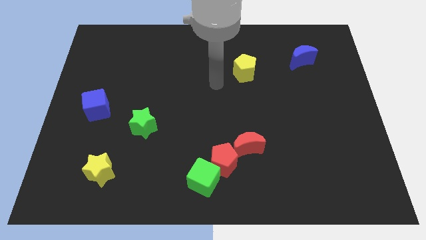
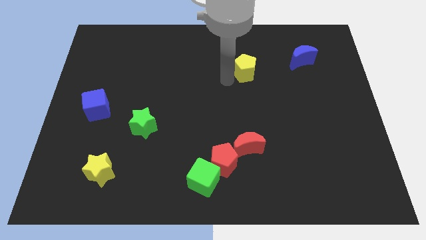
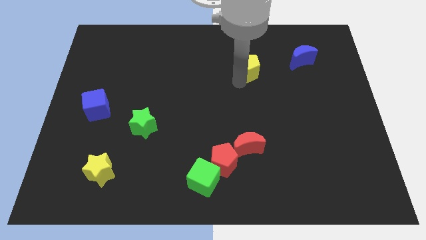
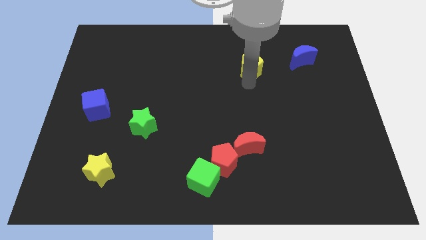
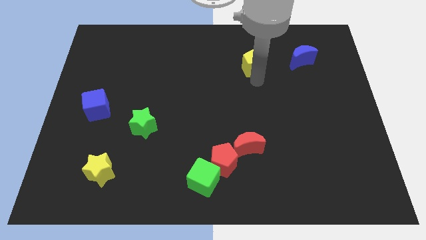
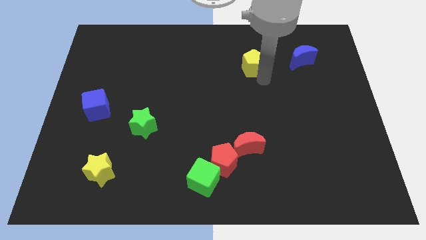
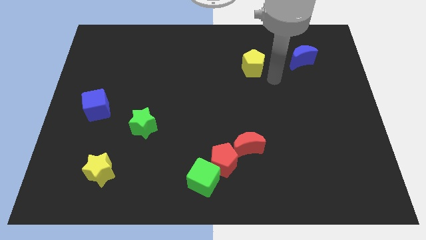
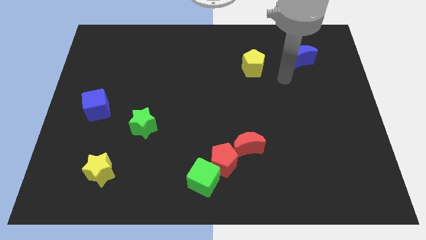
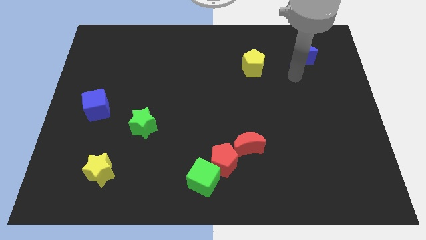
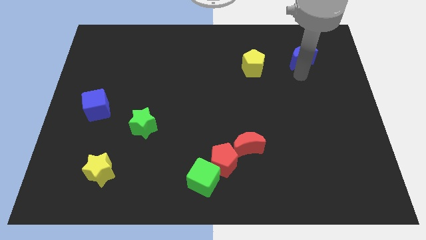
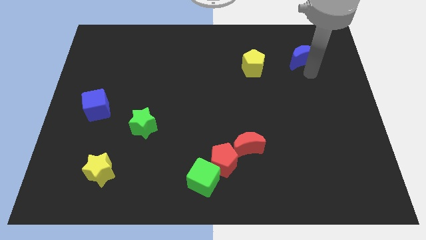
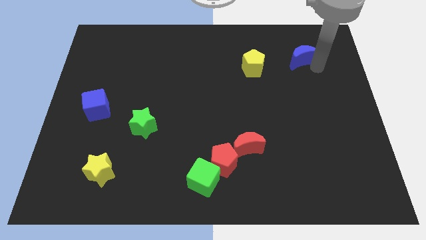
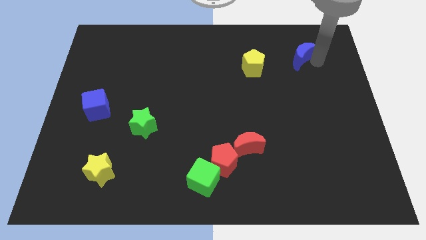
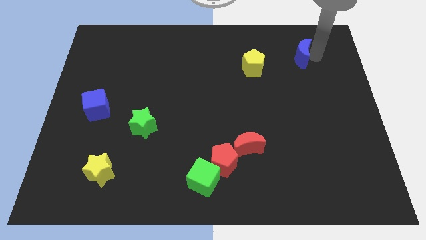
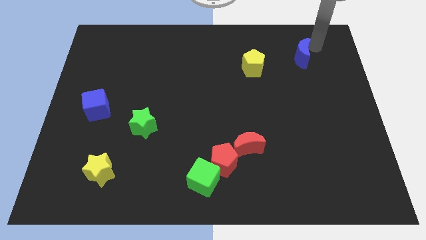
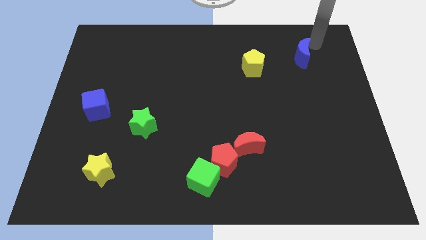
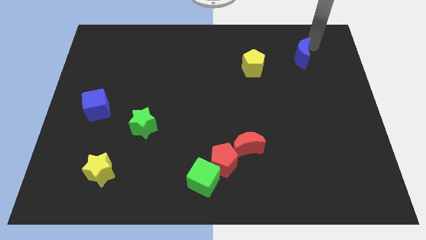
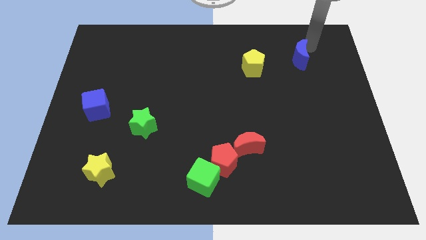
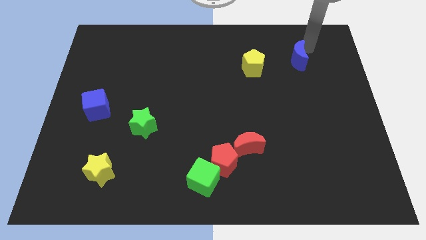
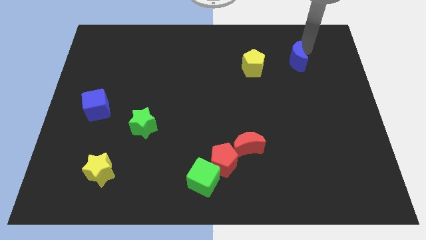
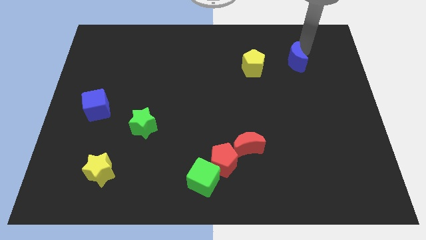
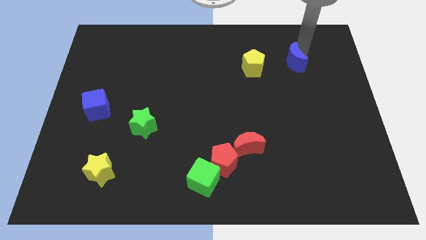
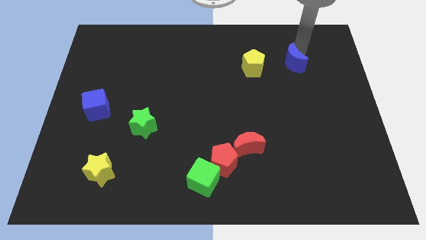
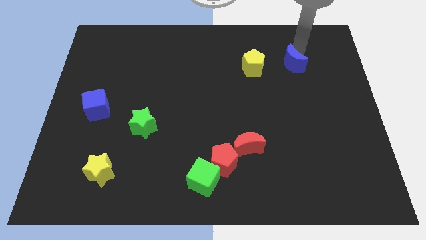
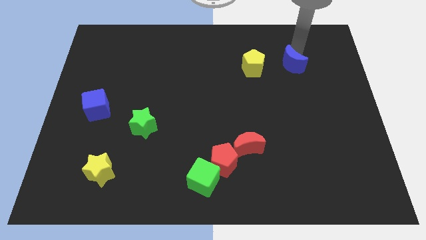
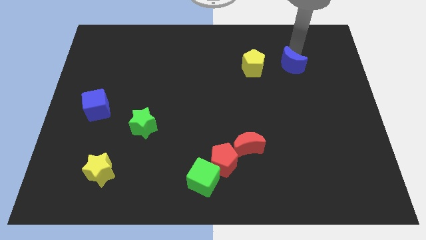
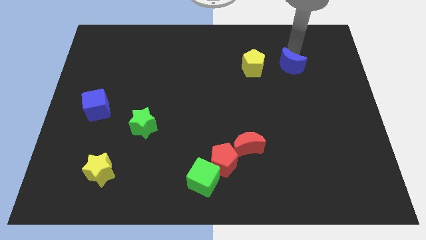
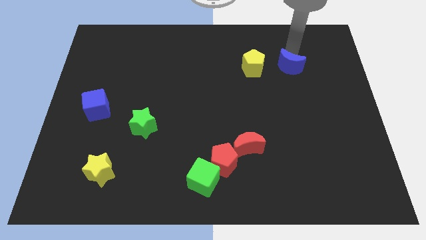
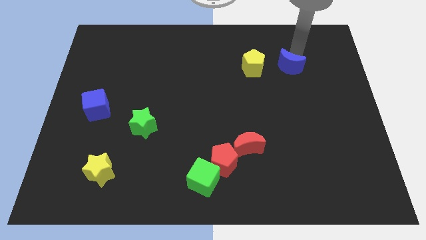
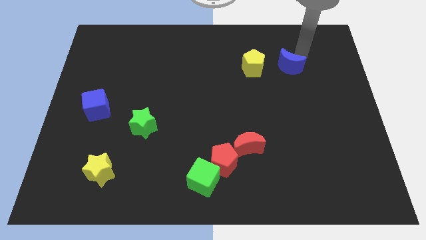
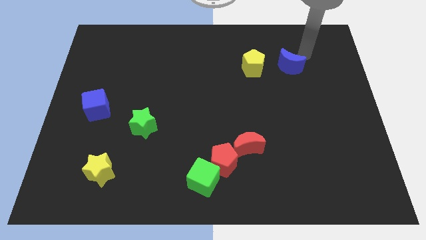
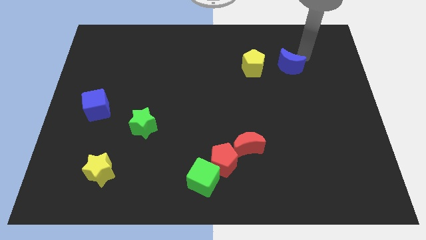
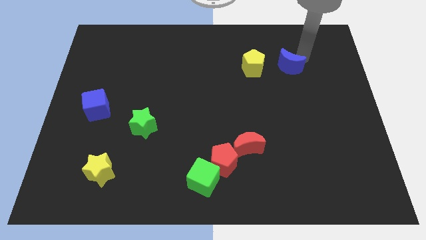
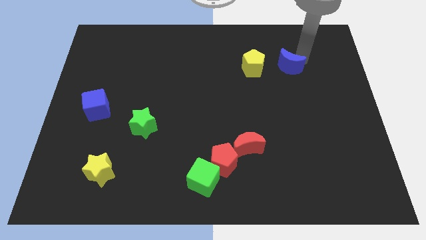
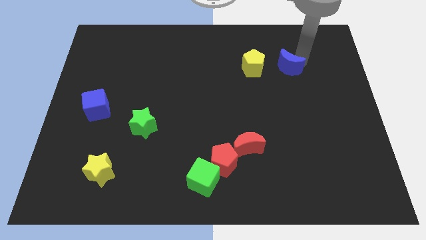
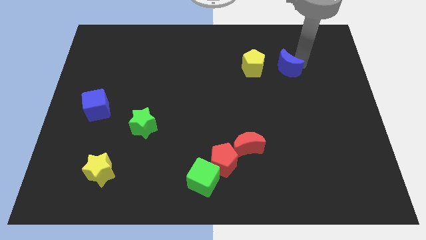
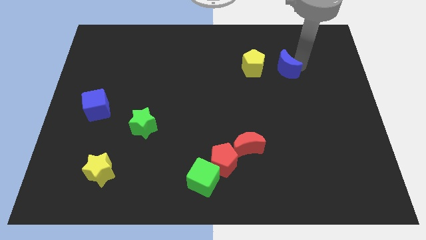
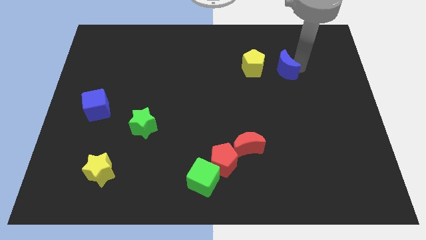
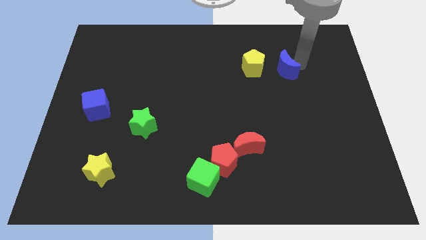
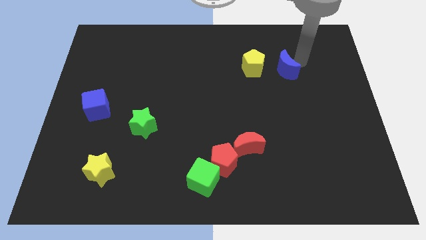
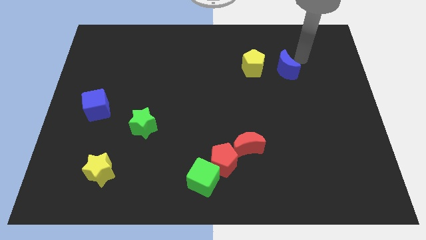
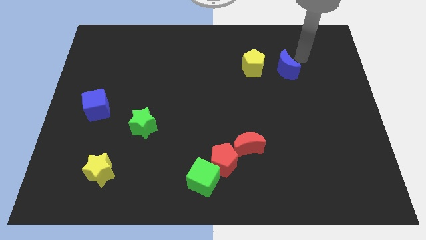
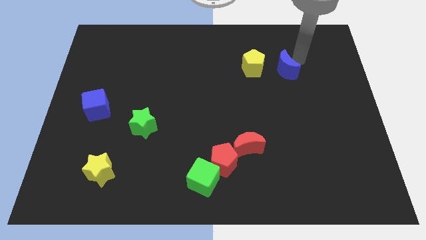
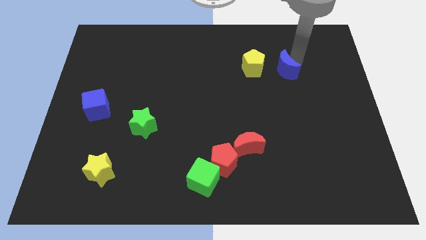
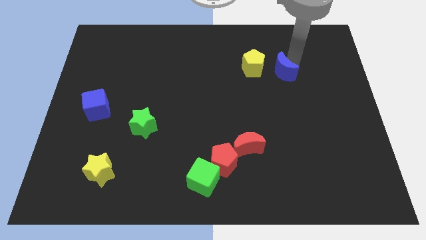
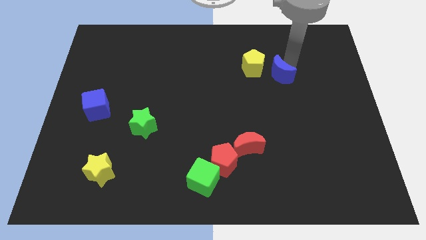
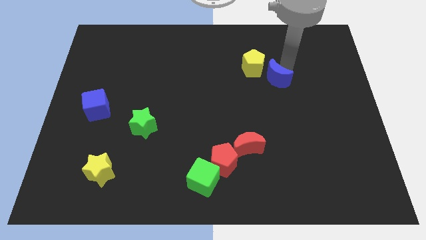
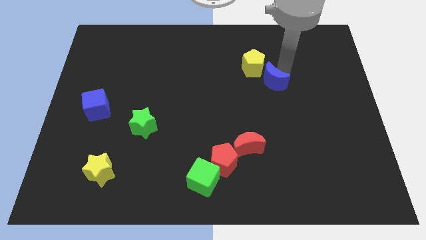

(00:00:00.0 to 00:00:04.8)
put the blue moon to the bottom of the yellow pentagon

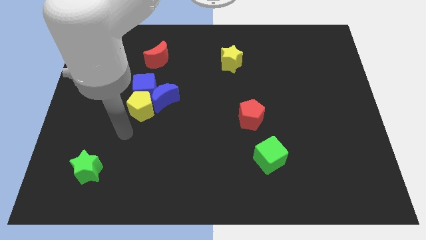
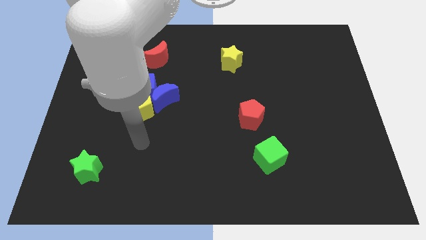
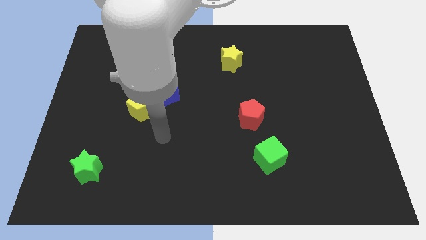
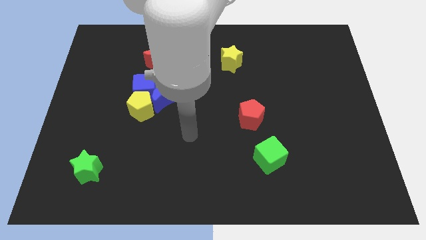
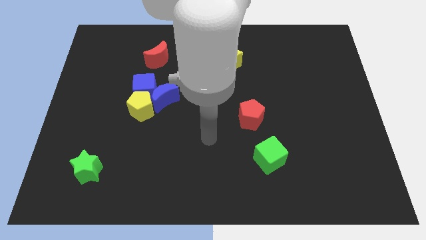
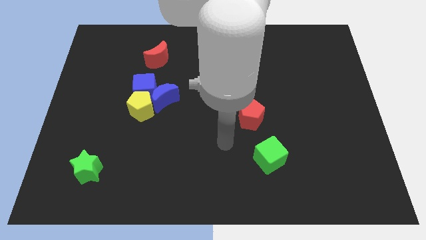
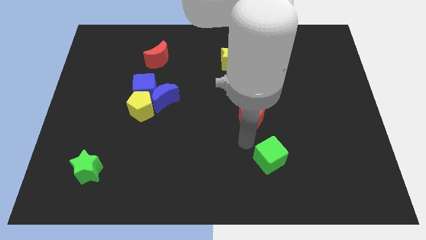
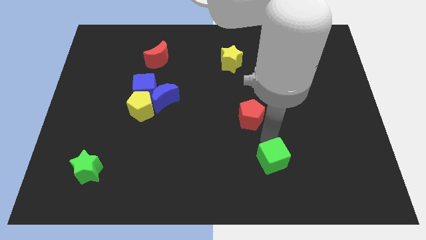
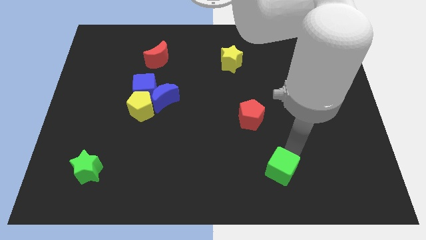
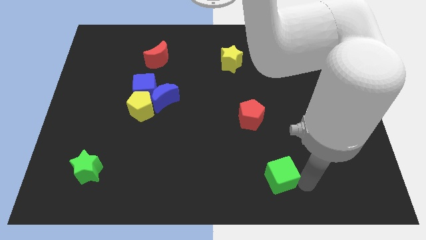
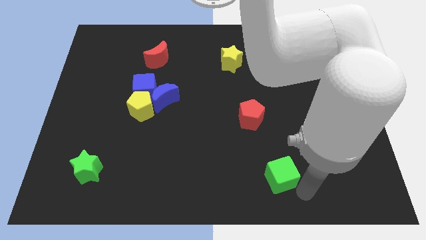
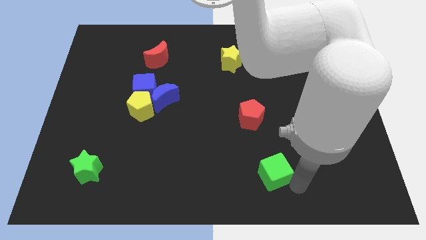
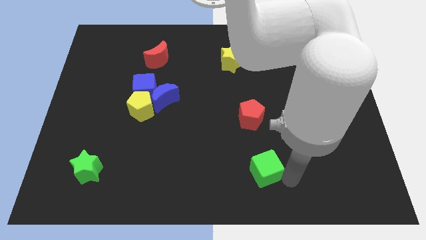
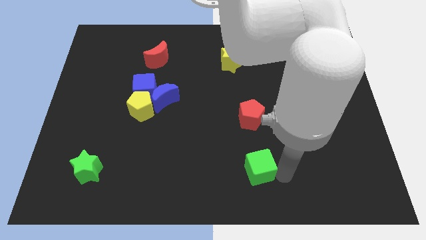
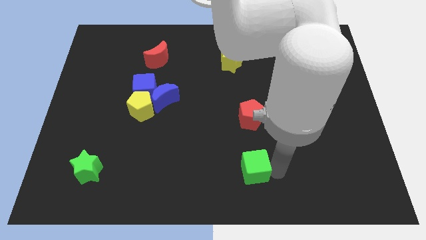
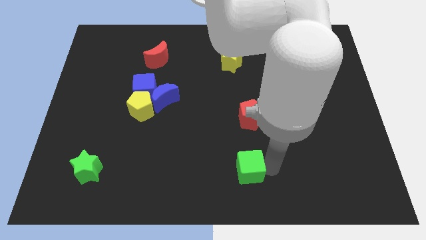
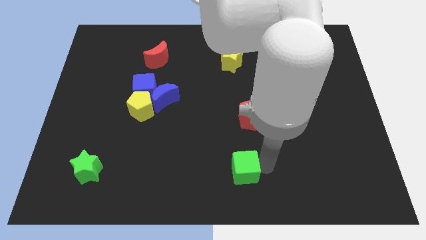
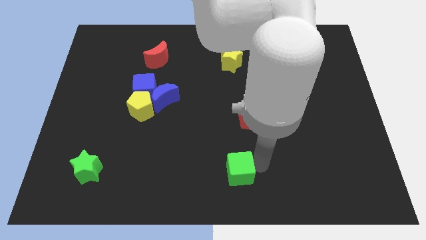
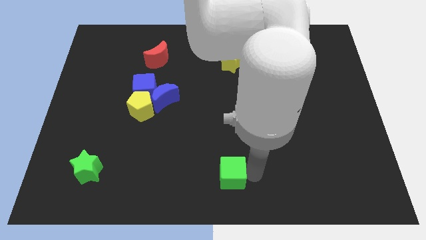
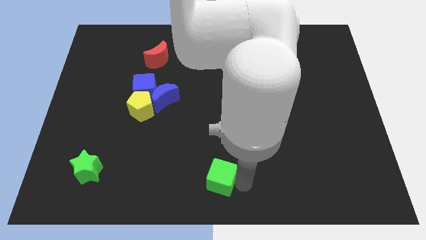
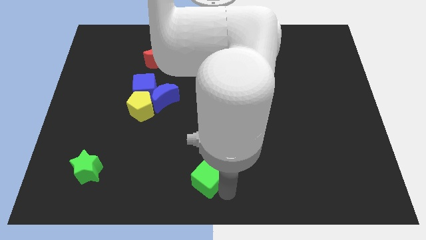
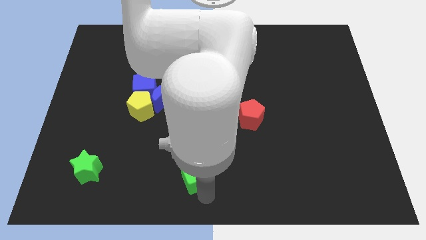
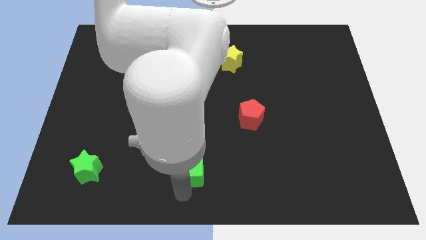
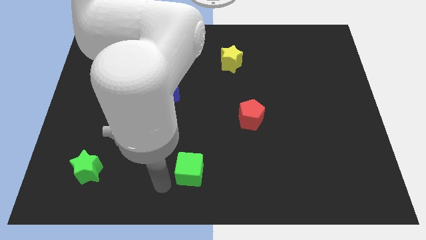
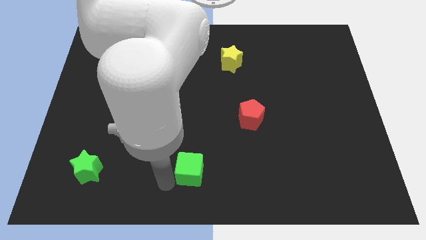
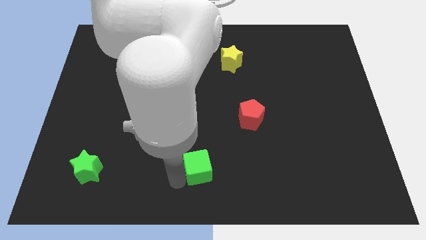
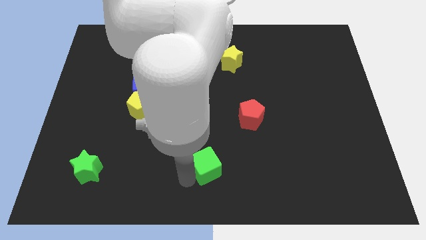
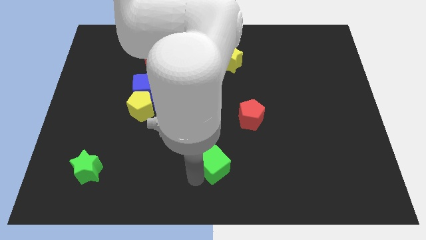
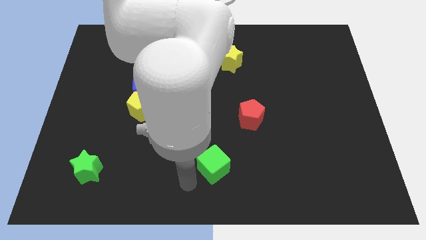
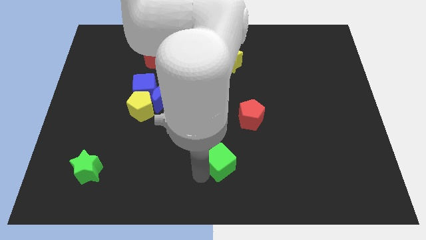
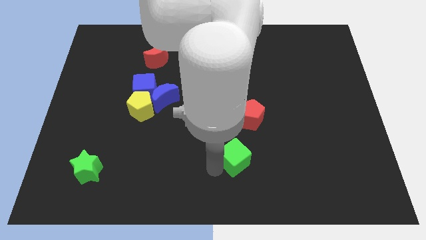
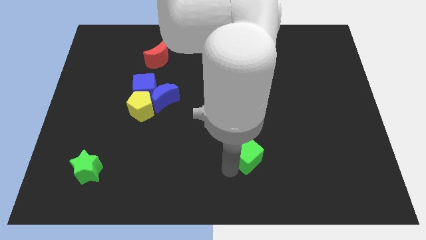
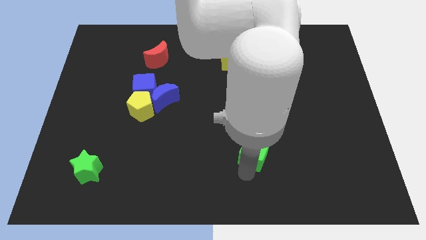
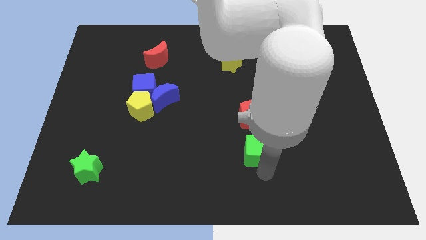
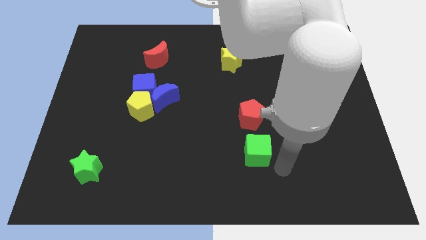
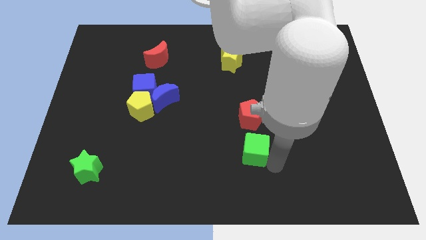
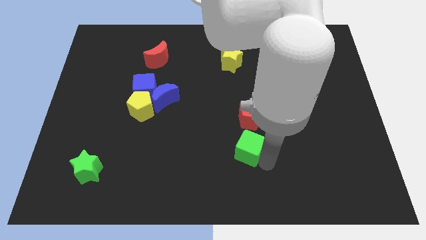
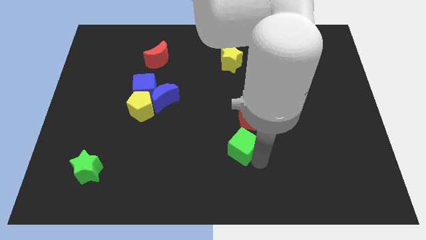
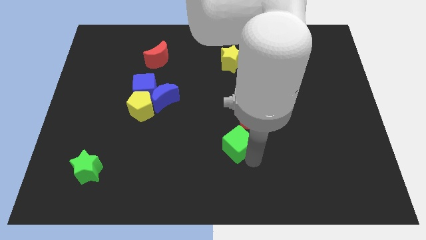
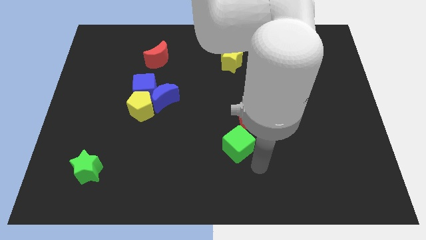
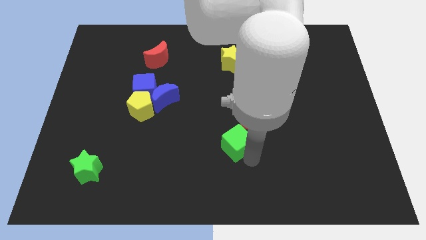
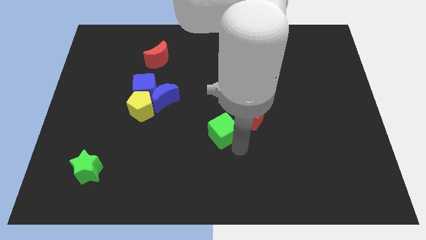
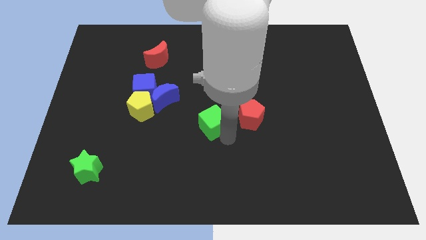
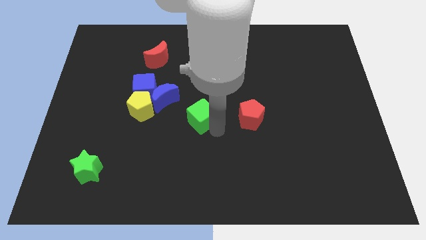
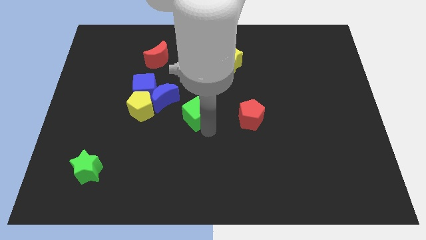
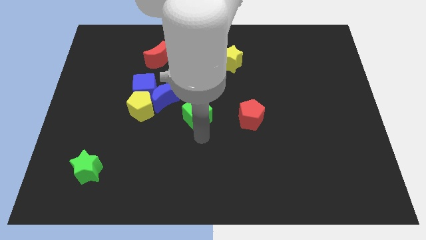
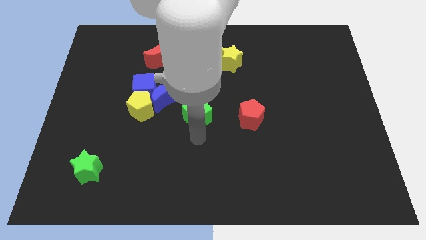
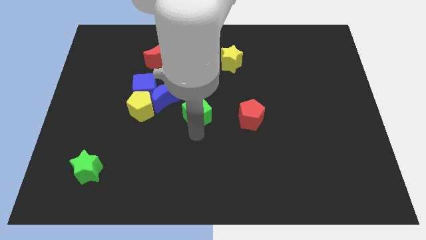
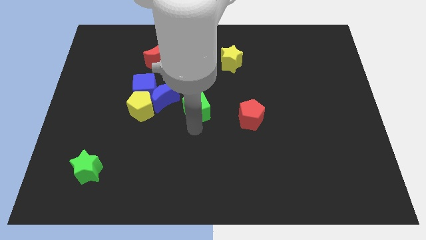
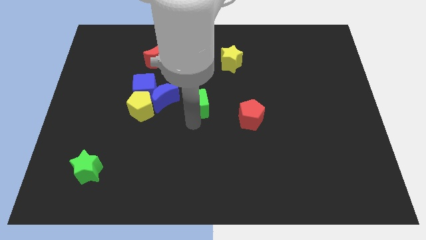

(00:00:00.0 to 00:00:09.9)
push the green cube just right of the blue cube
